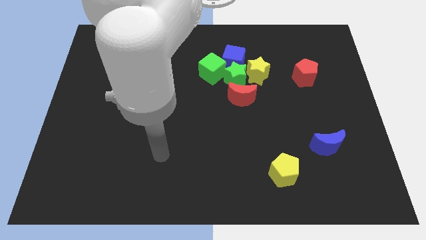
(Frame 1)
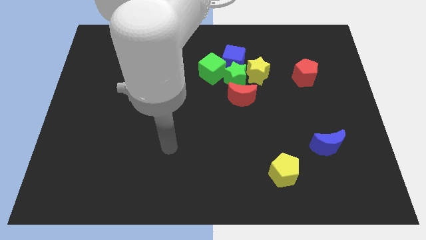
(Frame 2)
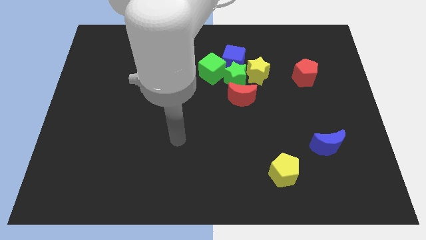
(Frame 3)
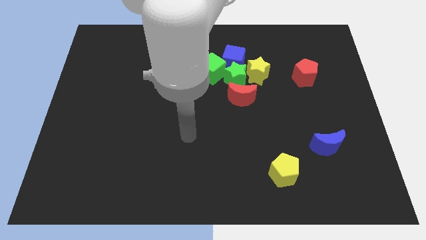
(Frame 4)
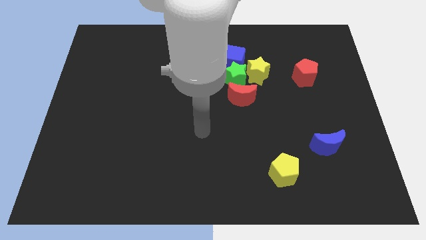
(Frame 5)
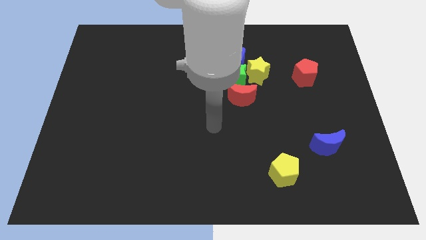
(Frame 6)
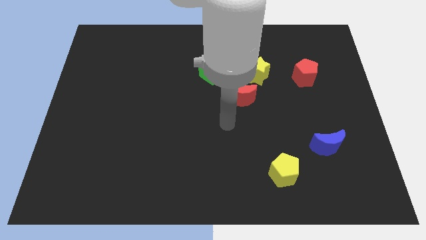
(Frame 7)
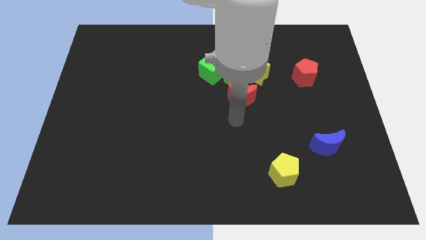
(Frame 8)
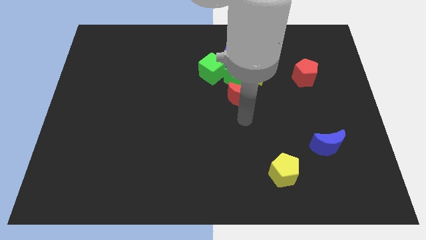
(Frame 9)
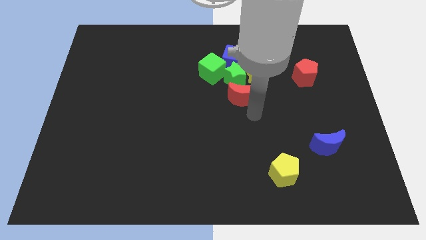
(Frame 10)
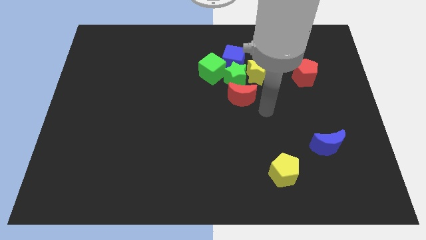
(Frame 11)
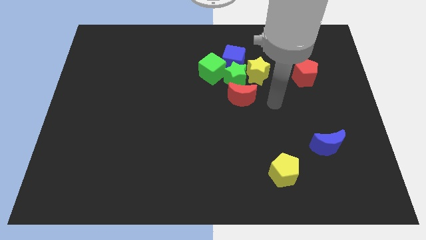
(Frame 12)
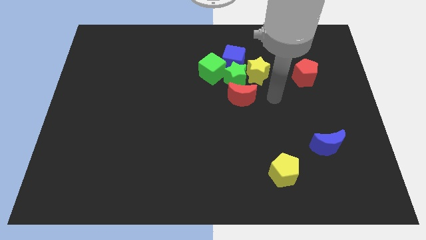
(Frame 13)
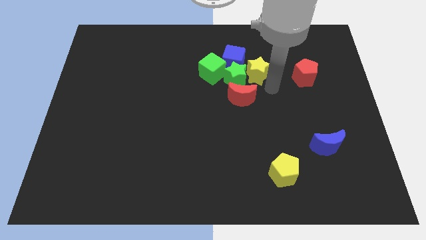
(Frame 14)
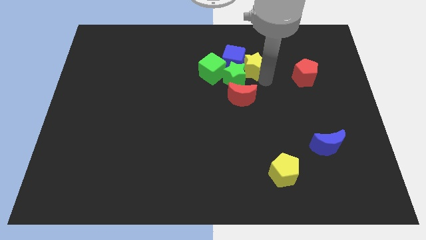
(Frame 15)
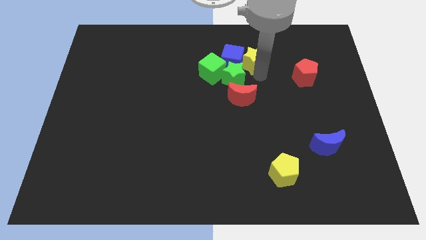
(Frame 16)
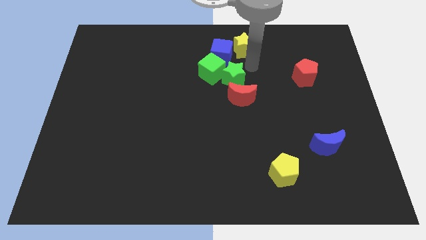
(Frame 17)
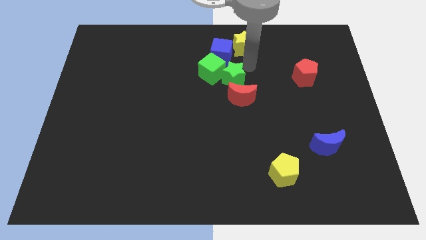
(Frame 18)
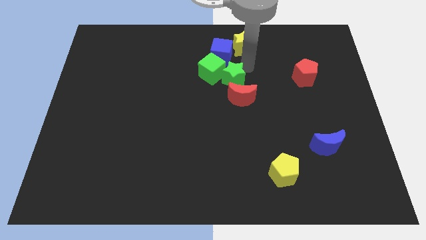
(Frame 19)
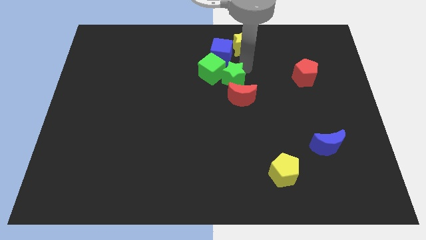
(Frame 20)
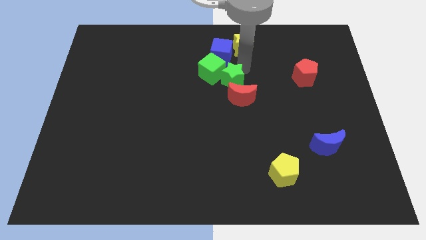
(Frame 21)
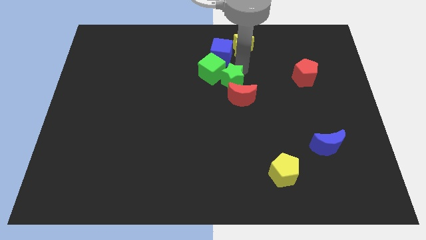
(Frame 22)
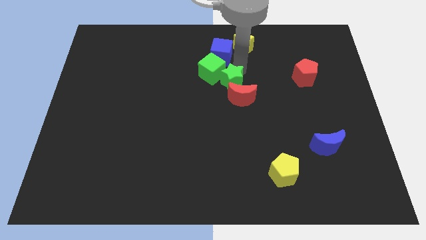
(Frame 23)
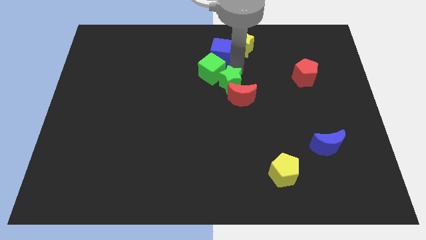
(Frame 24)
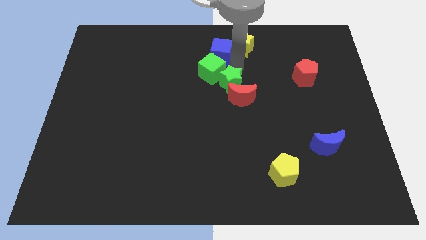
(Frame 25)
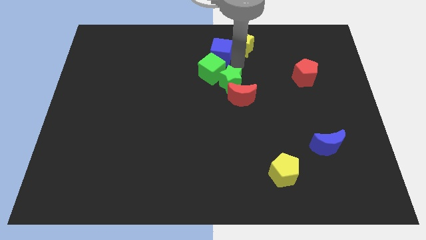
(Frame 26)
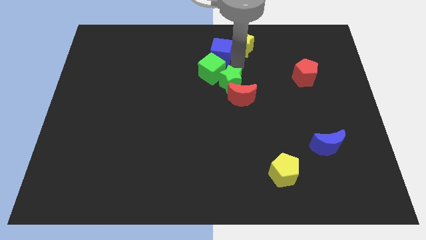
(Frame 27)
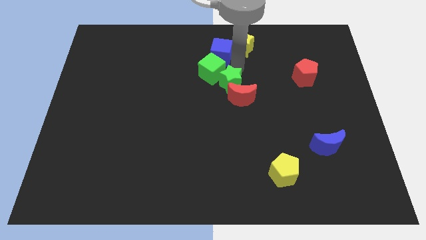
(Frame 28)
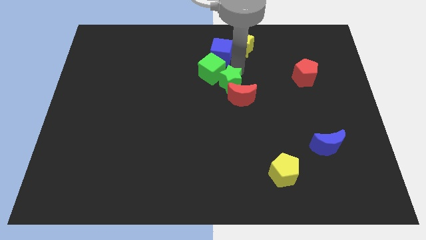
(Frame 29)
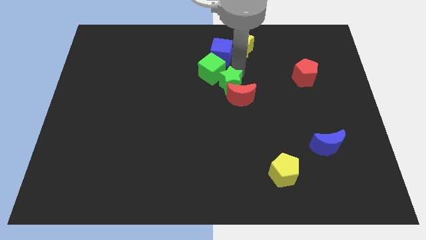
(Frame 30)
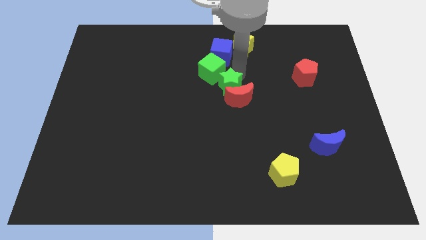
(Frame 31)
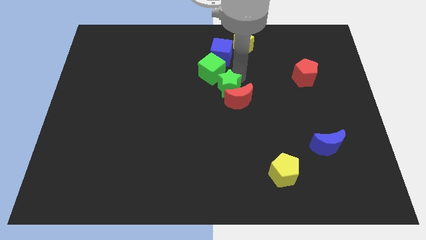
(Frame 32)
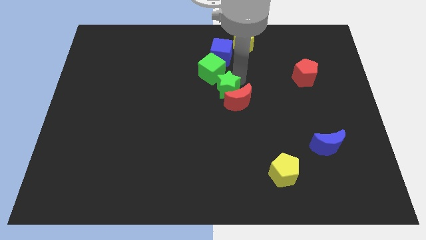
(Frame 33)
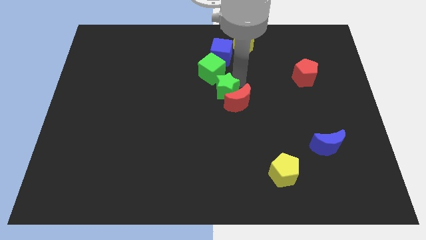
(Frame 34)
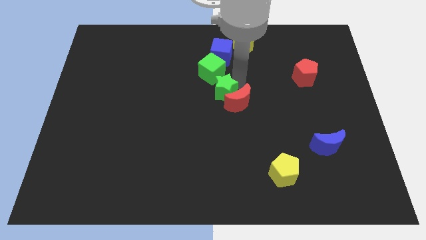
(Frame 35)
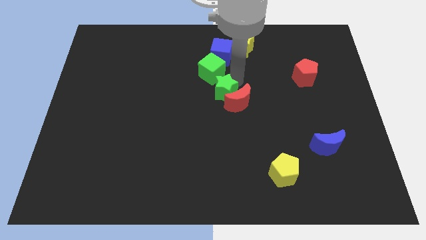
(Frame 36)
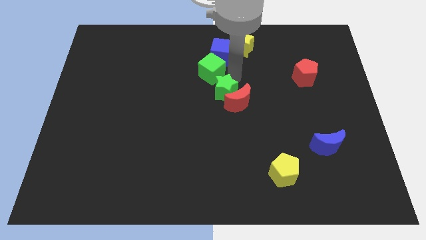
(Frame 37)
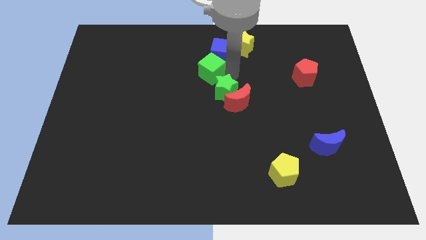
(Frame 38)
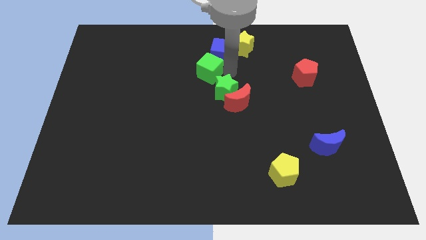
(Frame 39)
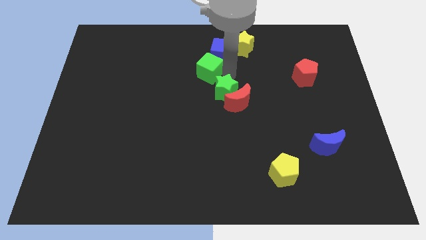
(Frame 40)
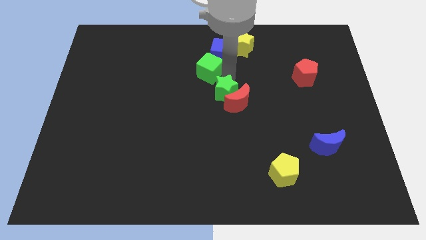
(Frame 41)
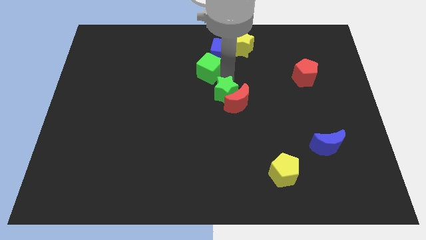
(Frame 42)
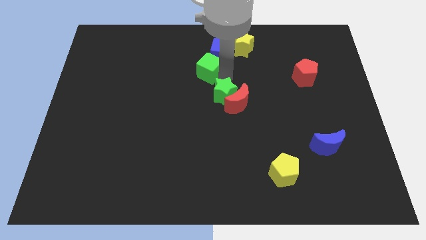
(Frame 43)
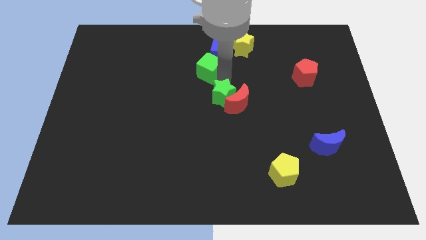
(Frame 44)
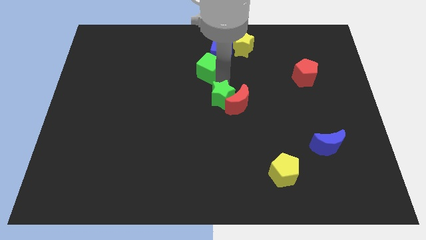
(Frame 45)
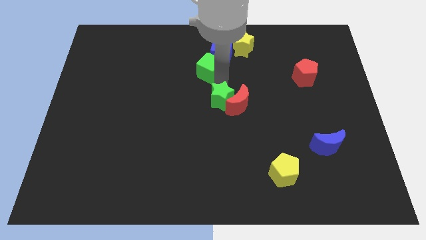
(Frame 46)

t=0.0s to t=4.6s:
separate the green star from the group of blocks

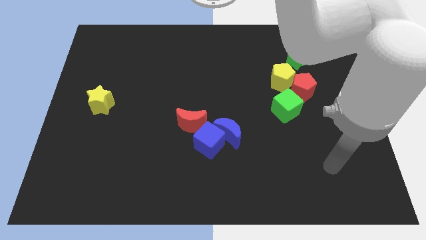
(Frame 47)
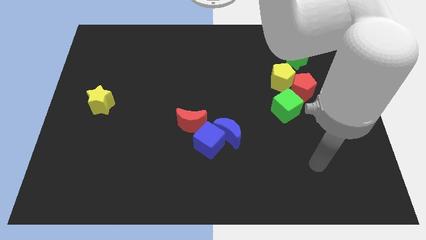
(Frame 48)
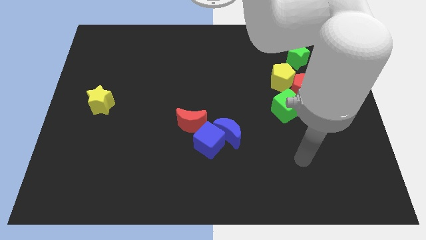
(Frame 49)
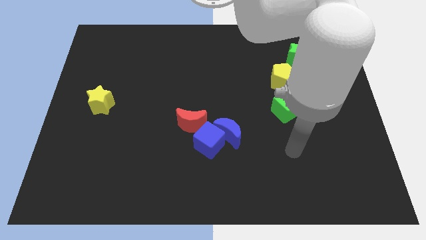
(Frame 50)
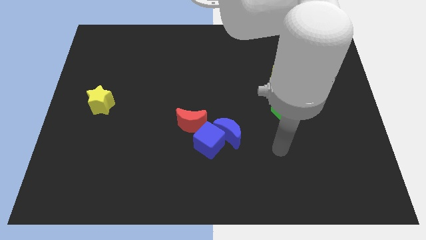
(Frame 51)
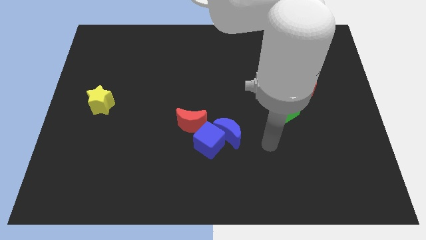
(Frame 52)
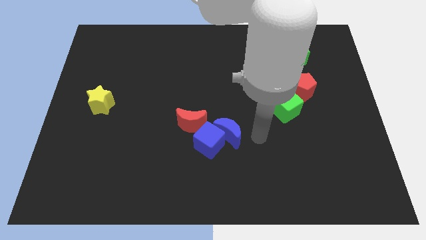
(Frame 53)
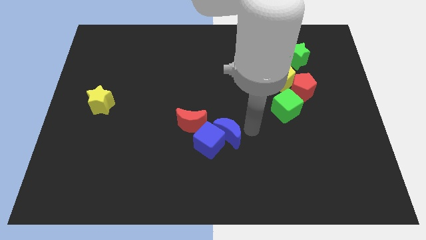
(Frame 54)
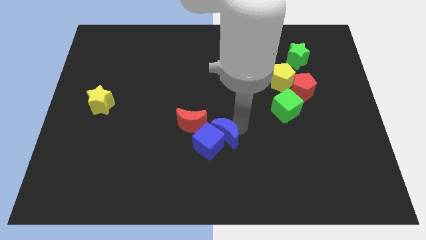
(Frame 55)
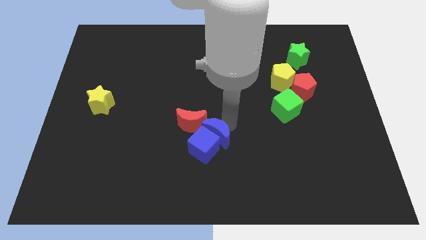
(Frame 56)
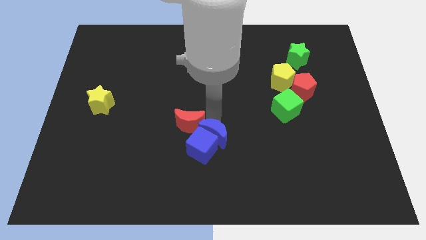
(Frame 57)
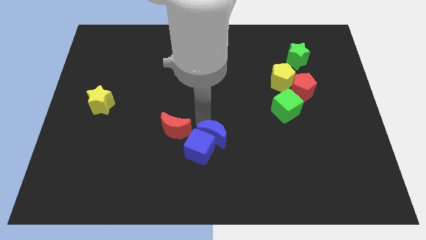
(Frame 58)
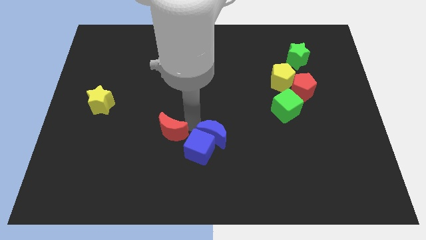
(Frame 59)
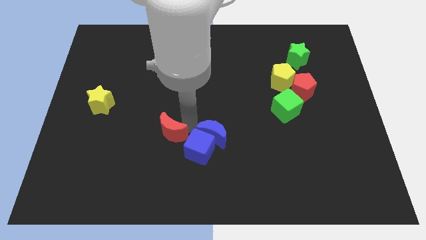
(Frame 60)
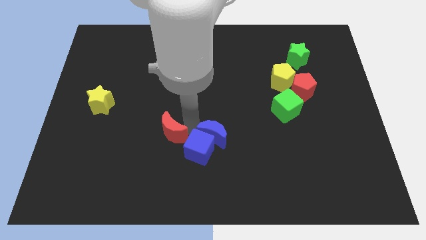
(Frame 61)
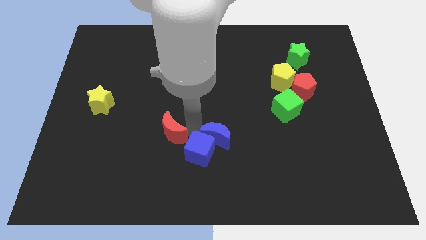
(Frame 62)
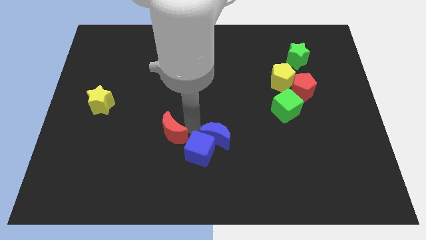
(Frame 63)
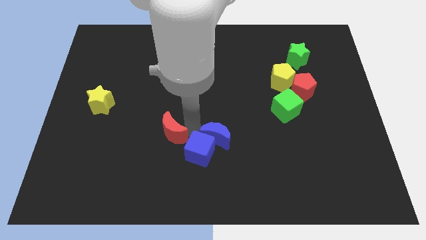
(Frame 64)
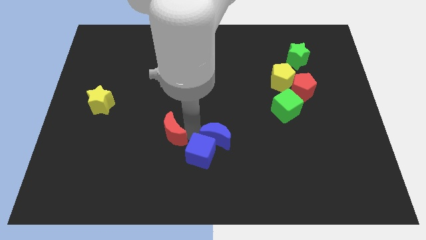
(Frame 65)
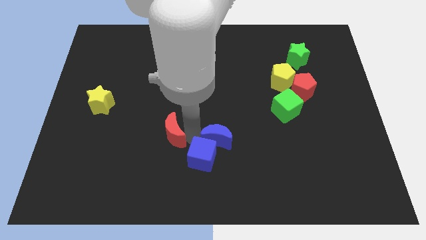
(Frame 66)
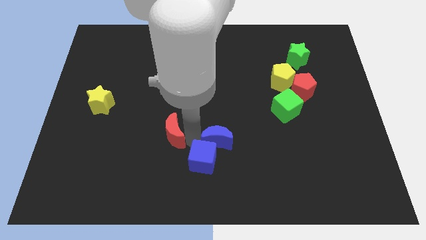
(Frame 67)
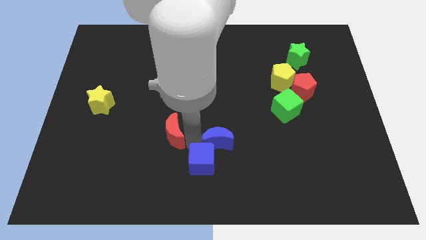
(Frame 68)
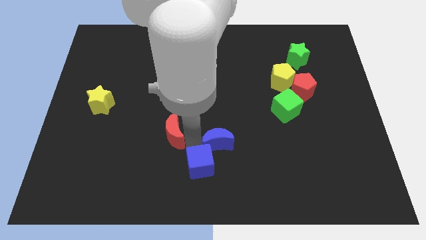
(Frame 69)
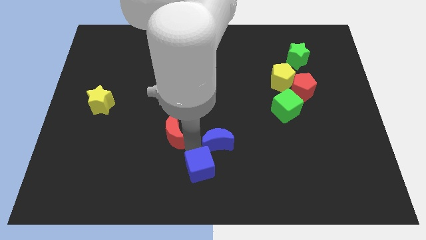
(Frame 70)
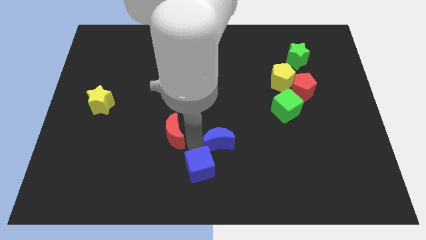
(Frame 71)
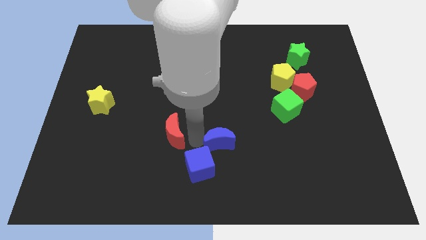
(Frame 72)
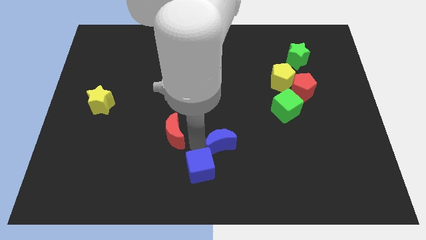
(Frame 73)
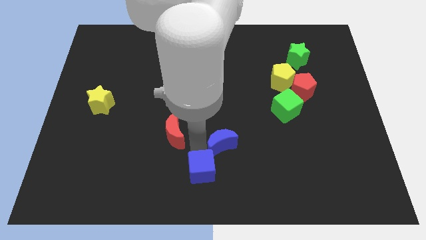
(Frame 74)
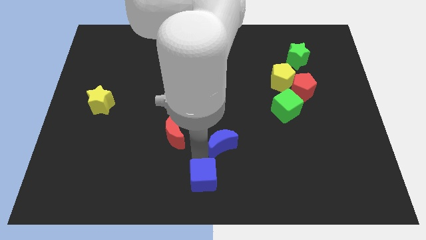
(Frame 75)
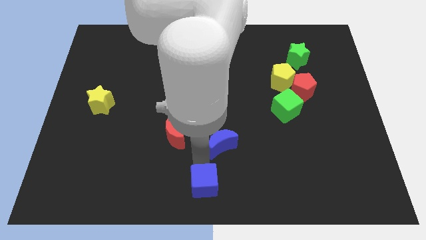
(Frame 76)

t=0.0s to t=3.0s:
pull the blue cube apart from the blue moon and red moon

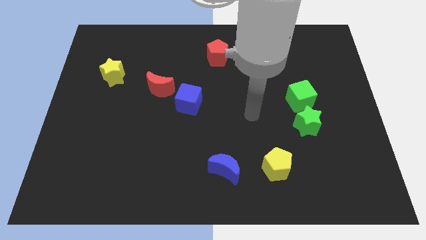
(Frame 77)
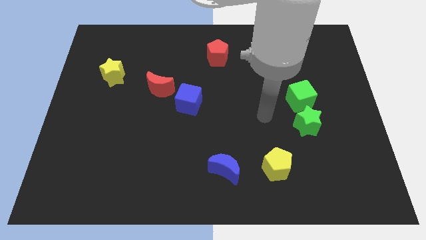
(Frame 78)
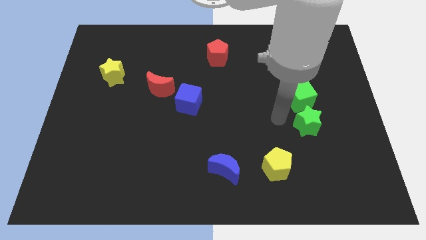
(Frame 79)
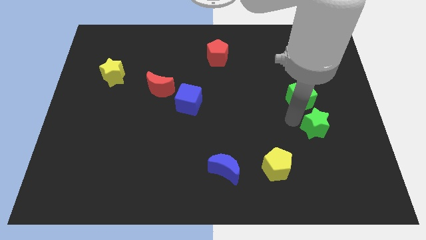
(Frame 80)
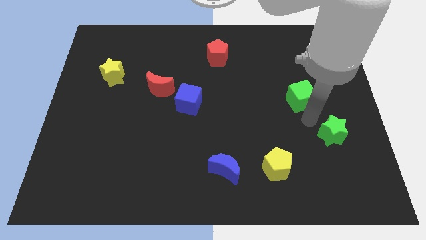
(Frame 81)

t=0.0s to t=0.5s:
pull the green cube apart from the green star

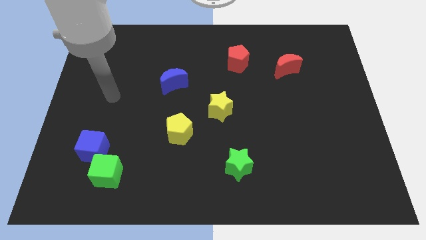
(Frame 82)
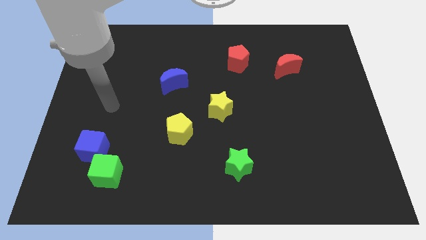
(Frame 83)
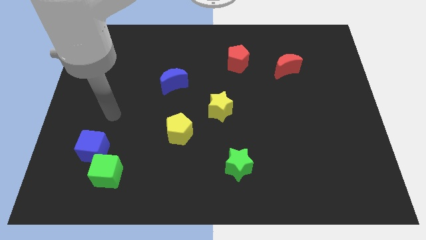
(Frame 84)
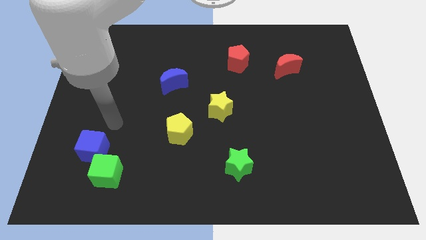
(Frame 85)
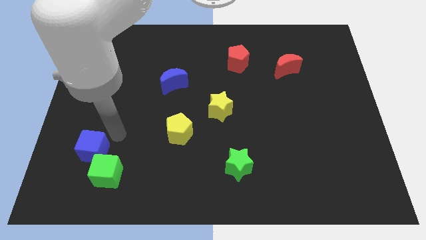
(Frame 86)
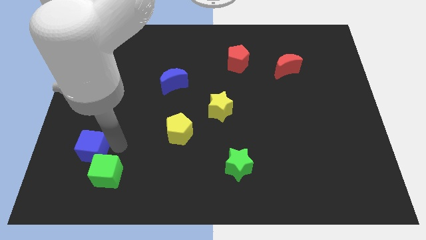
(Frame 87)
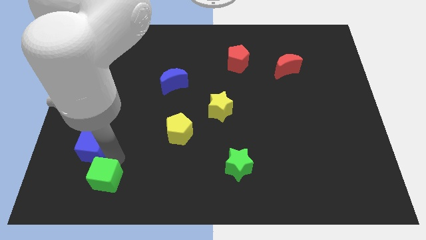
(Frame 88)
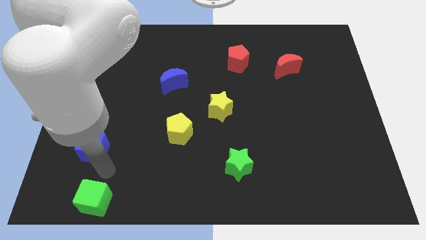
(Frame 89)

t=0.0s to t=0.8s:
move the blue cube away from the green cube

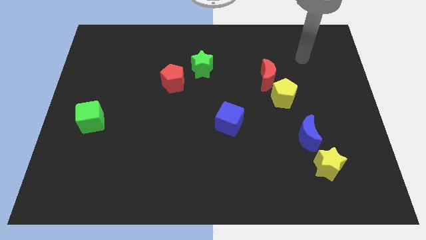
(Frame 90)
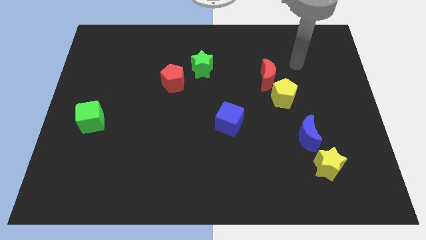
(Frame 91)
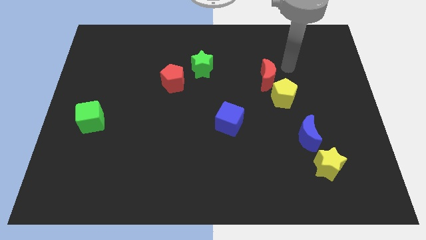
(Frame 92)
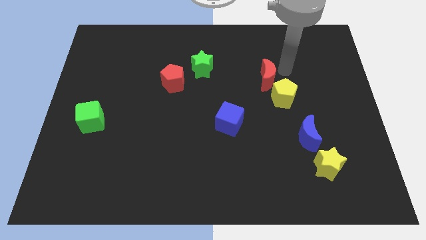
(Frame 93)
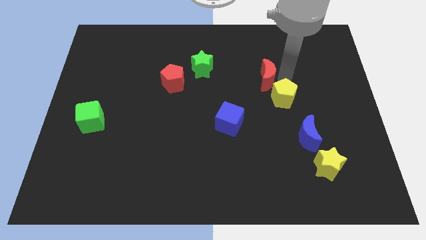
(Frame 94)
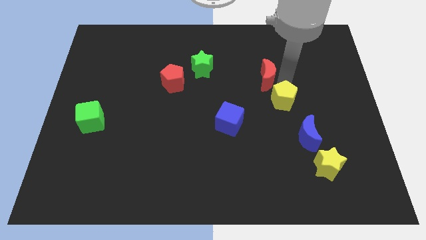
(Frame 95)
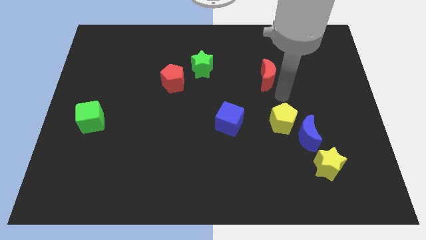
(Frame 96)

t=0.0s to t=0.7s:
separate the red moon from the yellow pentagon
